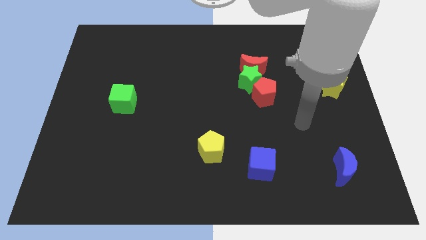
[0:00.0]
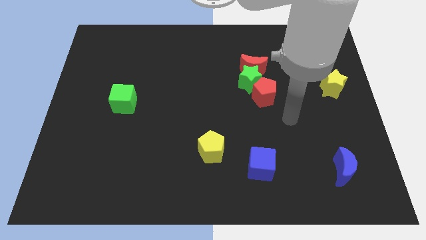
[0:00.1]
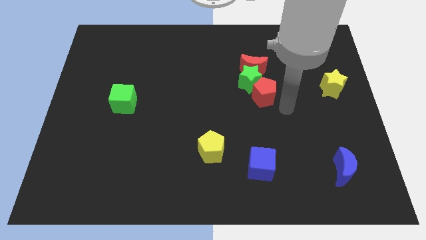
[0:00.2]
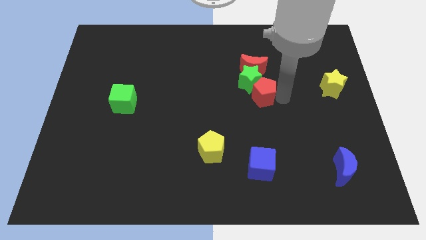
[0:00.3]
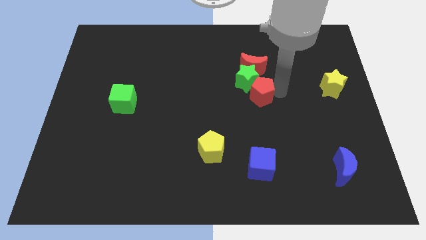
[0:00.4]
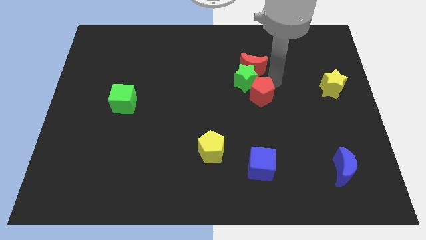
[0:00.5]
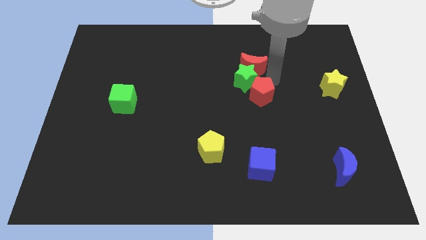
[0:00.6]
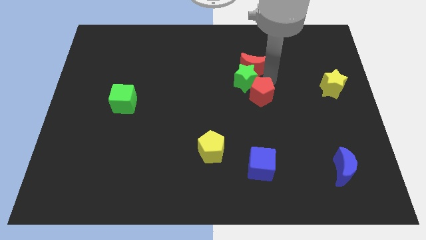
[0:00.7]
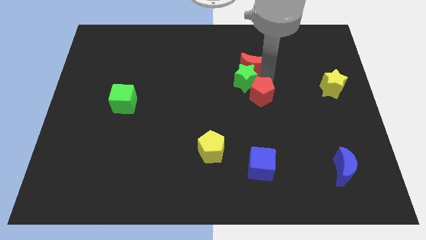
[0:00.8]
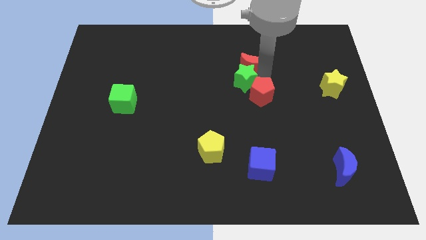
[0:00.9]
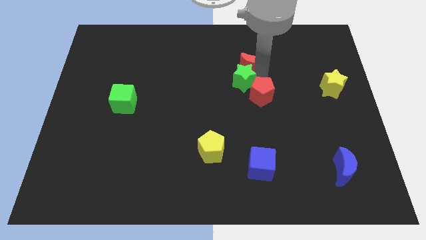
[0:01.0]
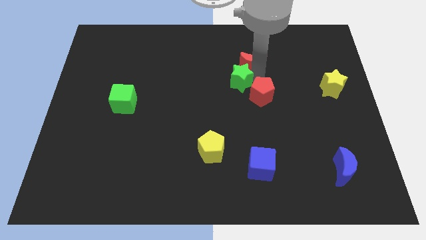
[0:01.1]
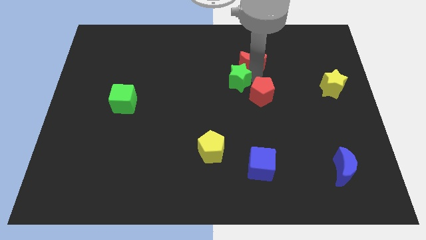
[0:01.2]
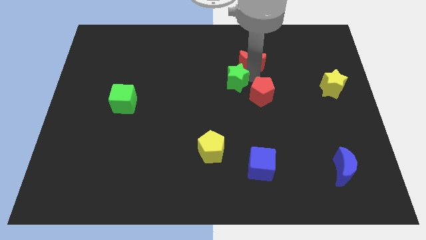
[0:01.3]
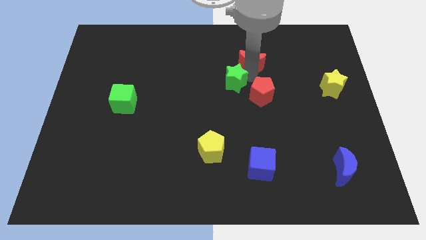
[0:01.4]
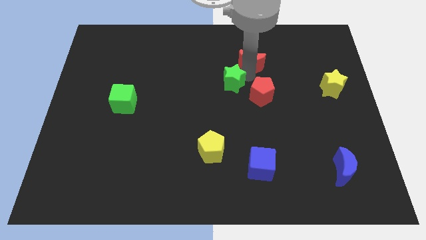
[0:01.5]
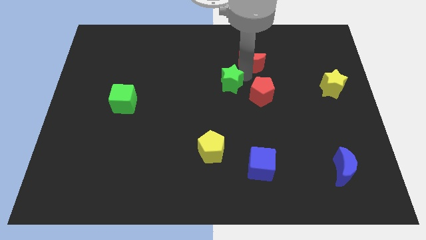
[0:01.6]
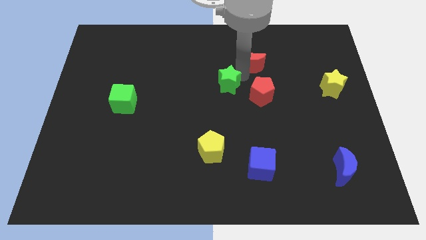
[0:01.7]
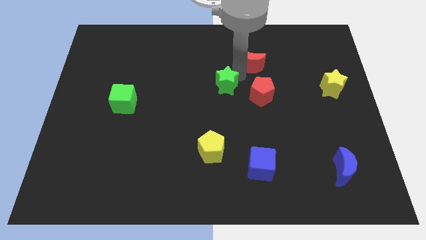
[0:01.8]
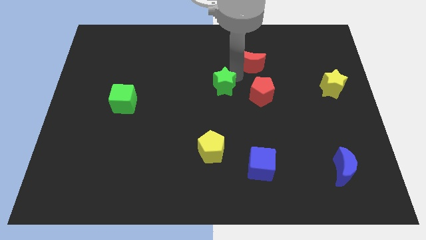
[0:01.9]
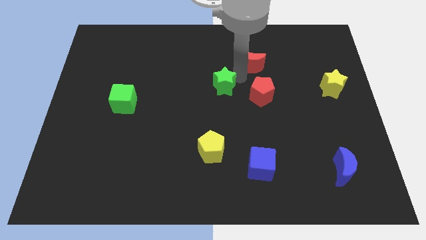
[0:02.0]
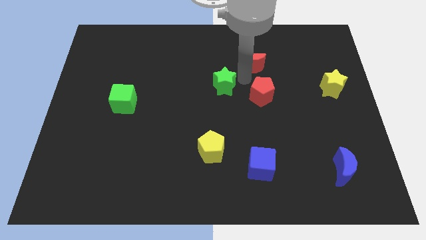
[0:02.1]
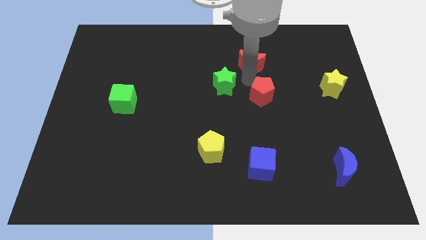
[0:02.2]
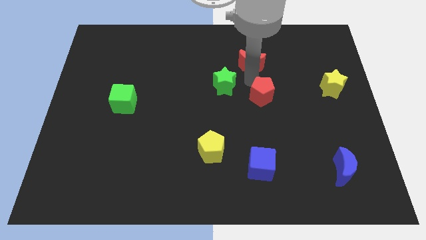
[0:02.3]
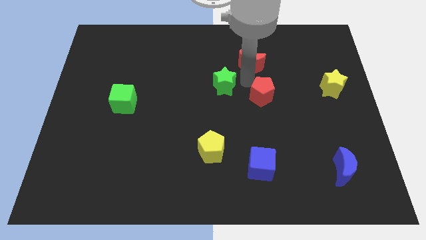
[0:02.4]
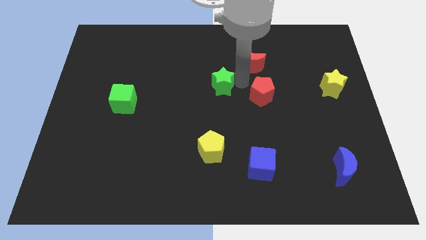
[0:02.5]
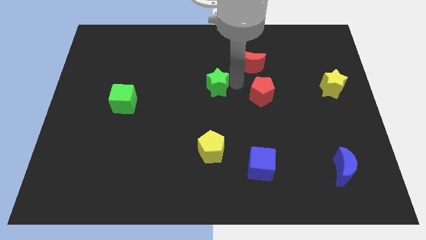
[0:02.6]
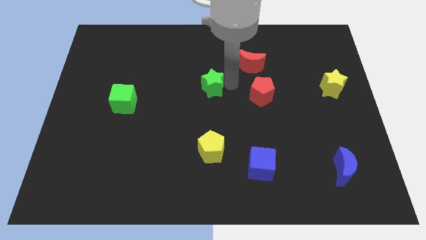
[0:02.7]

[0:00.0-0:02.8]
pull the green star apart from the red moon and red pentagon

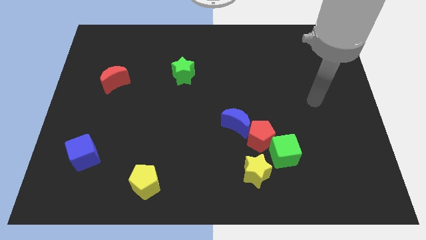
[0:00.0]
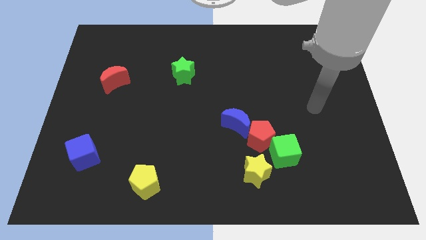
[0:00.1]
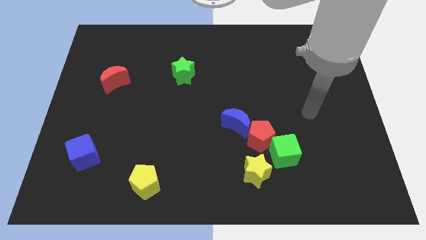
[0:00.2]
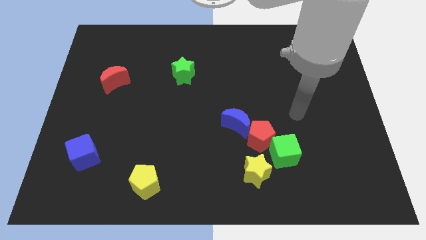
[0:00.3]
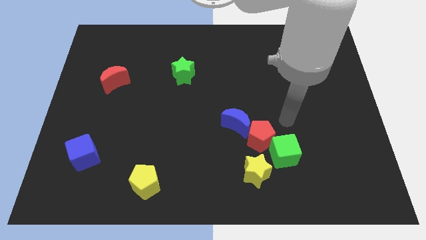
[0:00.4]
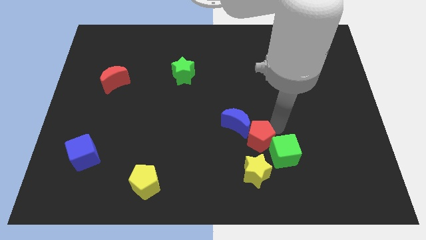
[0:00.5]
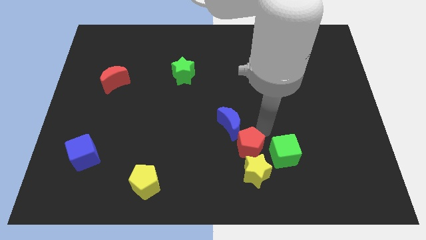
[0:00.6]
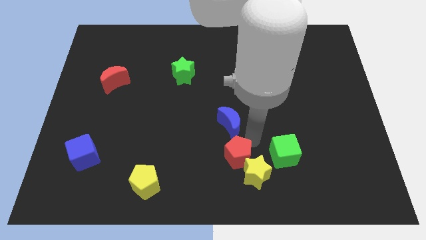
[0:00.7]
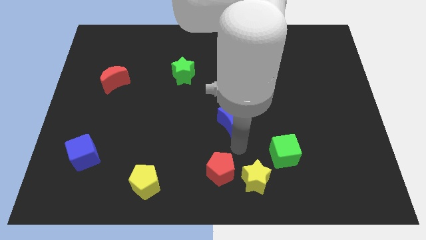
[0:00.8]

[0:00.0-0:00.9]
pull the blue moon apart from the red pentagon

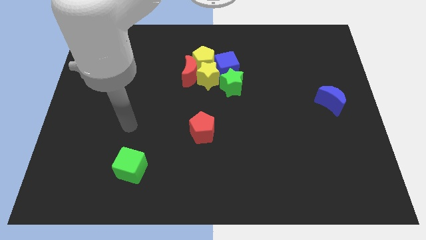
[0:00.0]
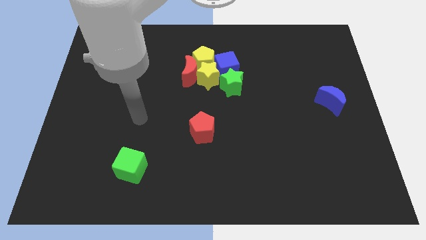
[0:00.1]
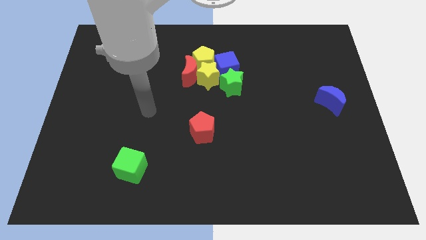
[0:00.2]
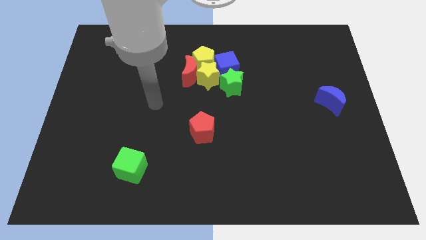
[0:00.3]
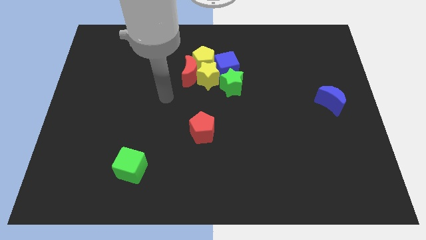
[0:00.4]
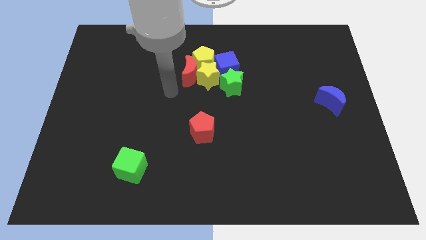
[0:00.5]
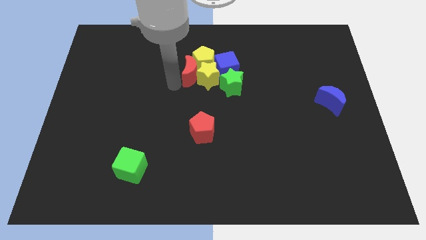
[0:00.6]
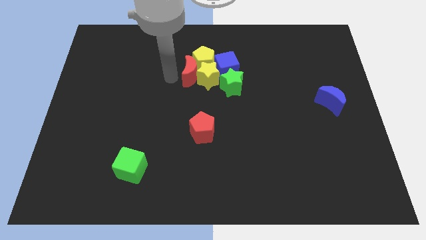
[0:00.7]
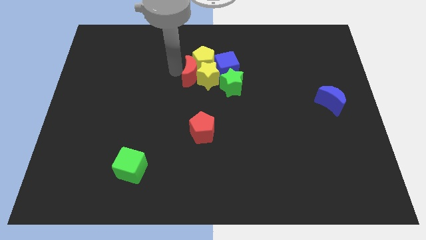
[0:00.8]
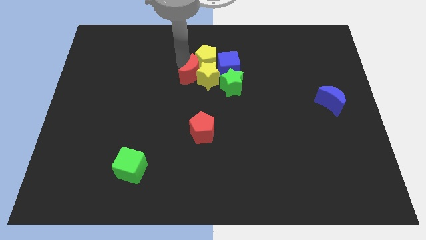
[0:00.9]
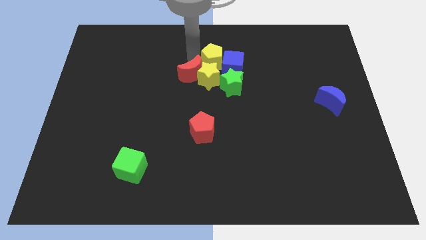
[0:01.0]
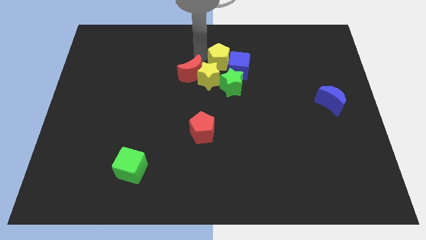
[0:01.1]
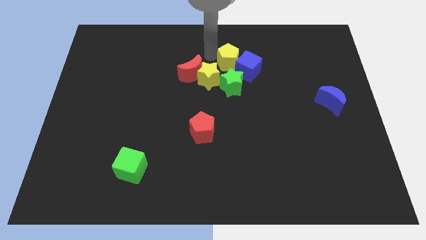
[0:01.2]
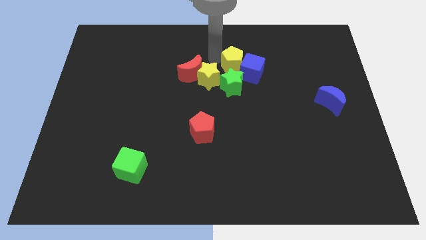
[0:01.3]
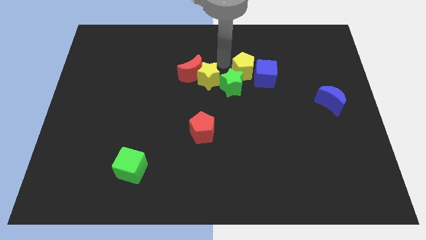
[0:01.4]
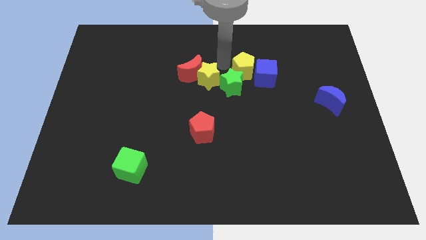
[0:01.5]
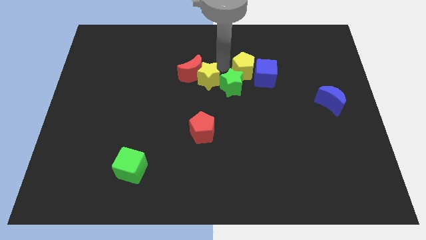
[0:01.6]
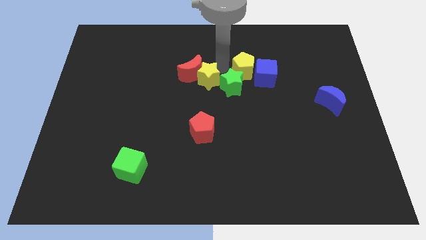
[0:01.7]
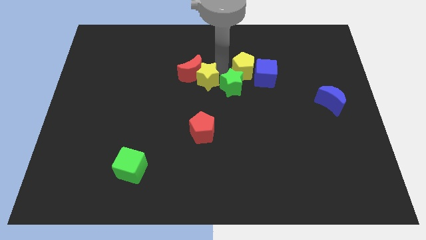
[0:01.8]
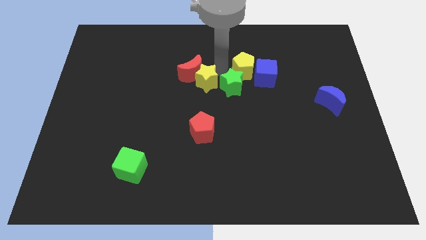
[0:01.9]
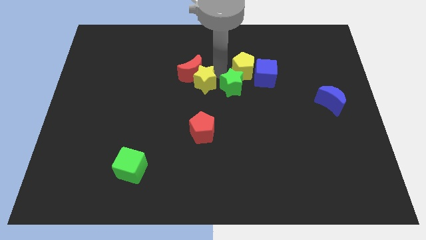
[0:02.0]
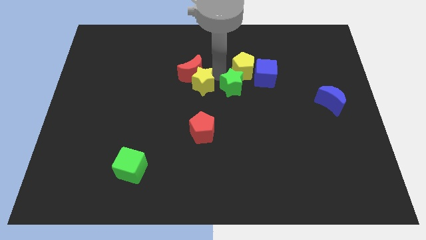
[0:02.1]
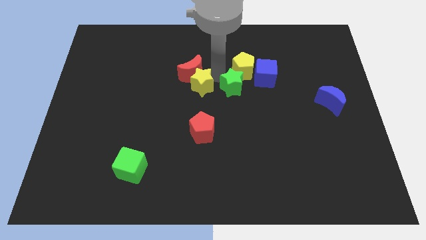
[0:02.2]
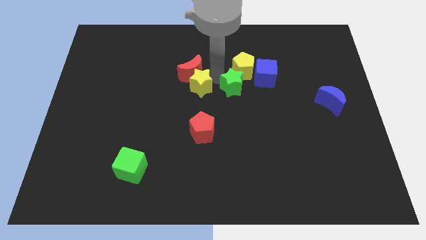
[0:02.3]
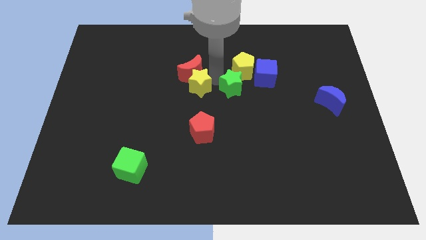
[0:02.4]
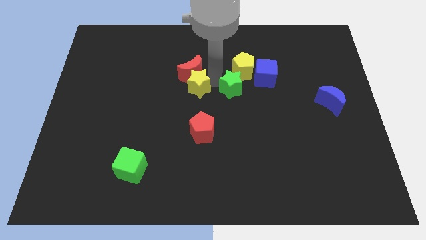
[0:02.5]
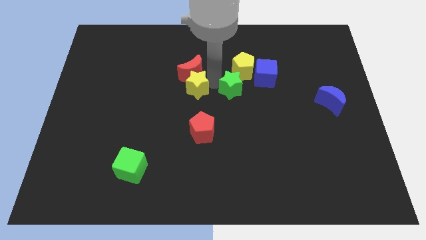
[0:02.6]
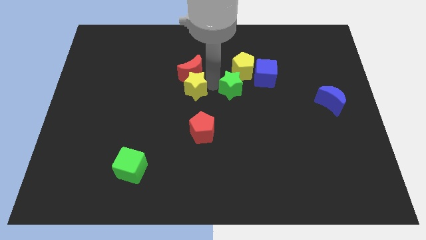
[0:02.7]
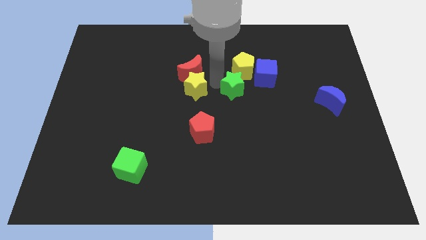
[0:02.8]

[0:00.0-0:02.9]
pull the yellow star apart from the group of blocks

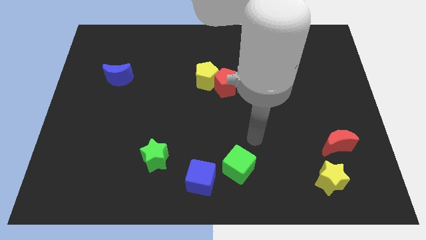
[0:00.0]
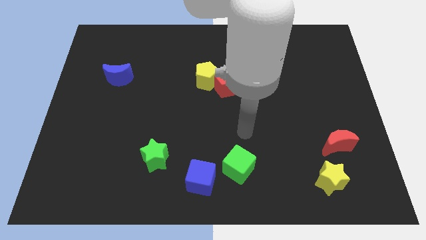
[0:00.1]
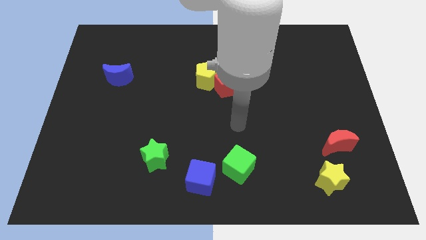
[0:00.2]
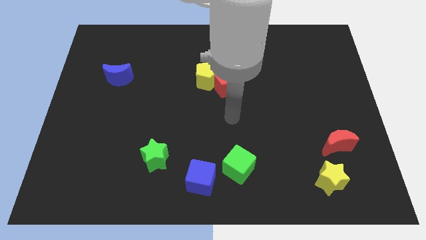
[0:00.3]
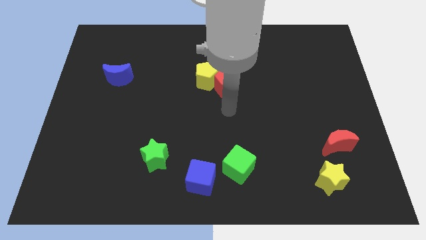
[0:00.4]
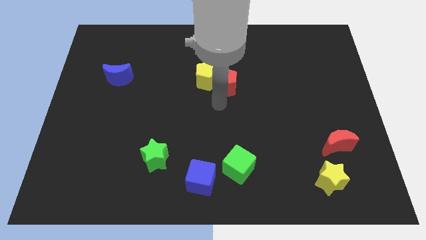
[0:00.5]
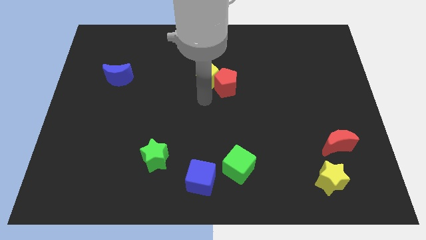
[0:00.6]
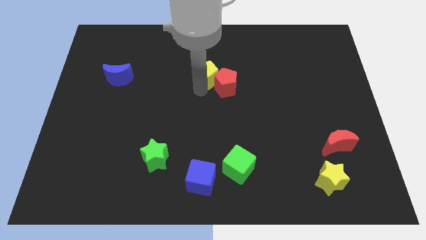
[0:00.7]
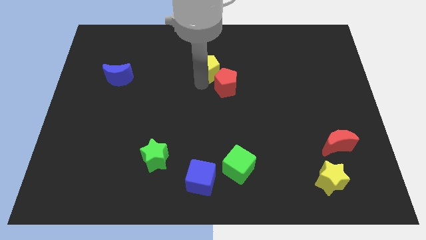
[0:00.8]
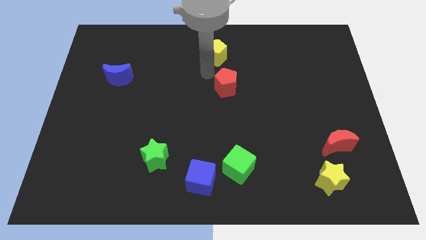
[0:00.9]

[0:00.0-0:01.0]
separate the red pentagon from the yellow pentagon

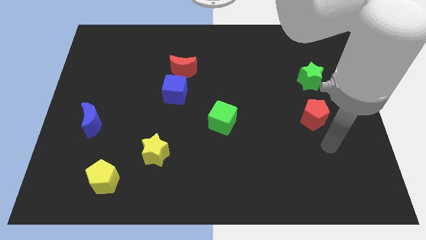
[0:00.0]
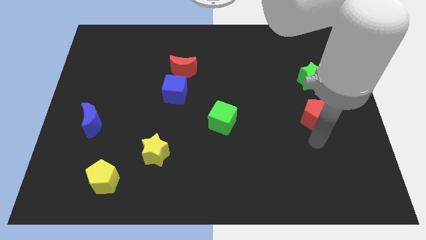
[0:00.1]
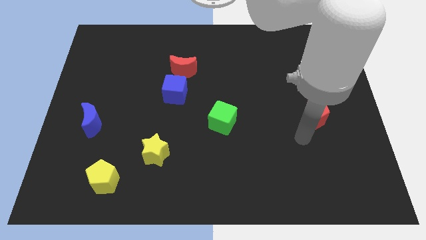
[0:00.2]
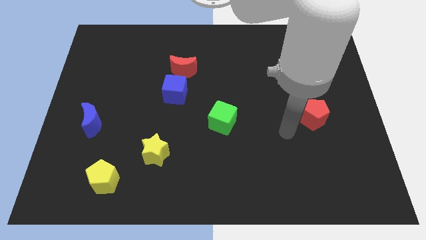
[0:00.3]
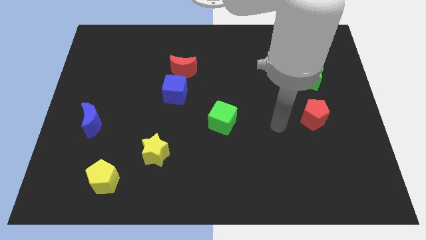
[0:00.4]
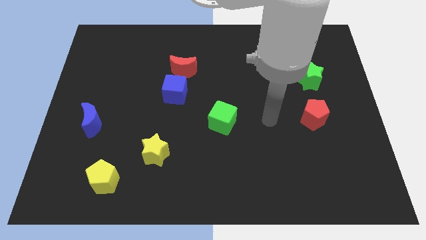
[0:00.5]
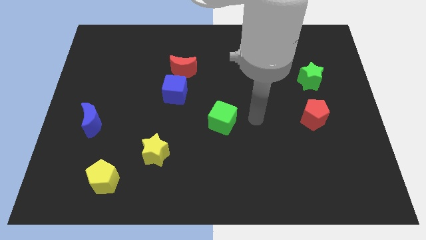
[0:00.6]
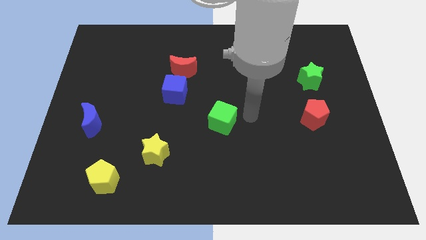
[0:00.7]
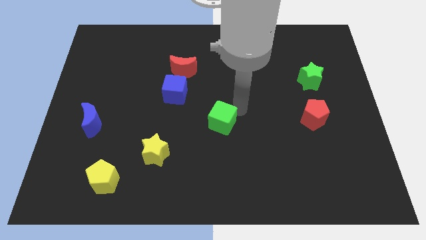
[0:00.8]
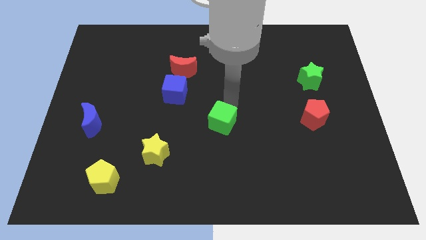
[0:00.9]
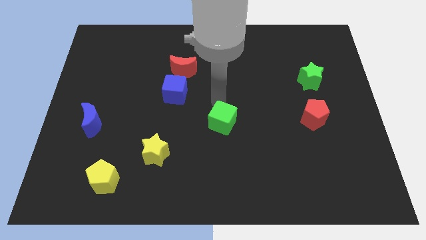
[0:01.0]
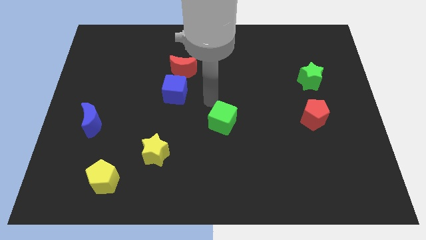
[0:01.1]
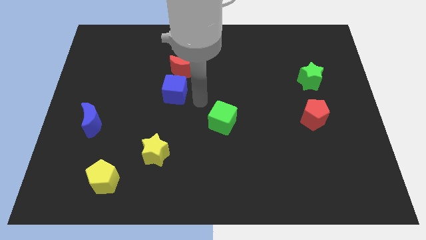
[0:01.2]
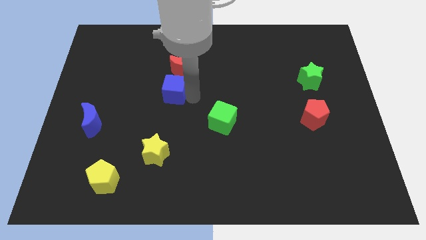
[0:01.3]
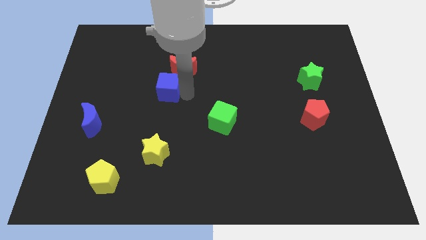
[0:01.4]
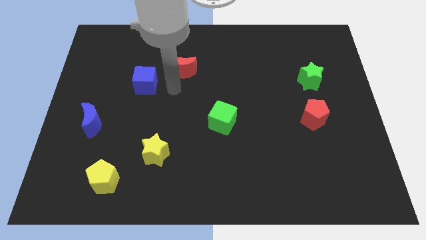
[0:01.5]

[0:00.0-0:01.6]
pull the red moon apart from the blue cube
